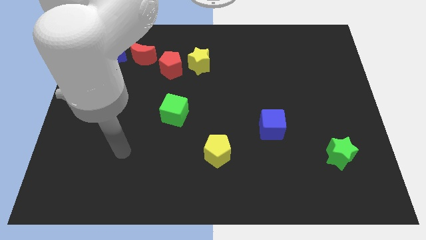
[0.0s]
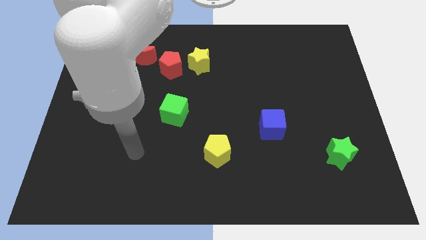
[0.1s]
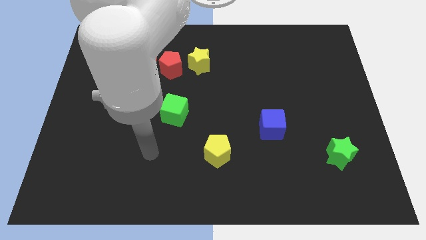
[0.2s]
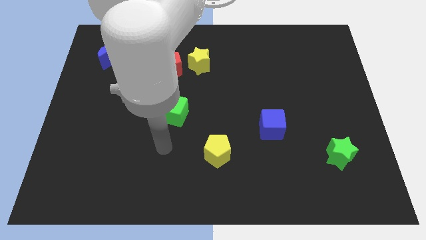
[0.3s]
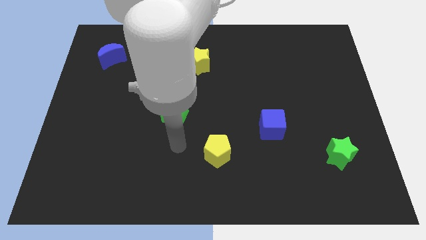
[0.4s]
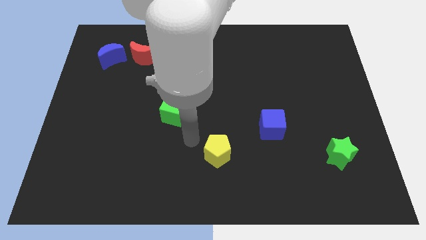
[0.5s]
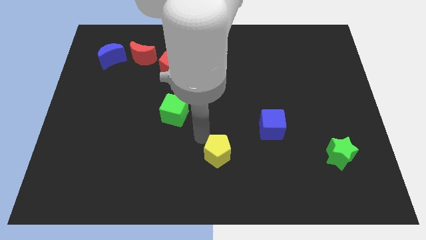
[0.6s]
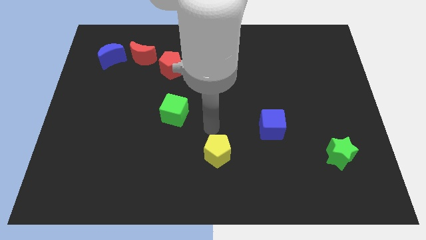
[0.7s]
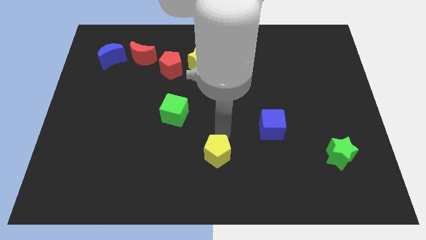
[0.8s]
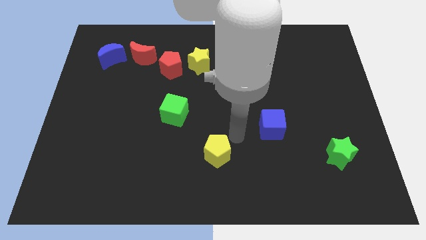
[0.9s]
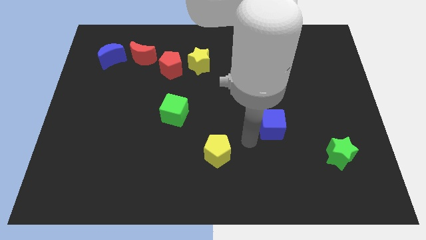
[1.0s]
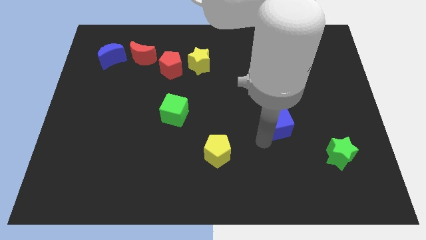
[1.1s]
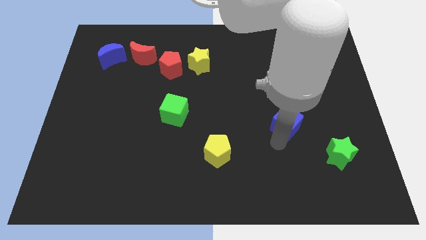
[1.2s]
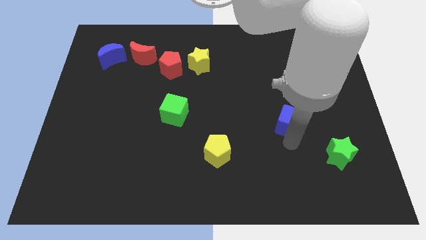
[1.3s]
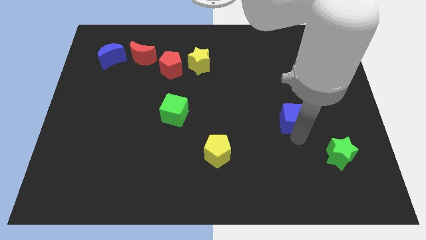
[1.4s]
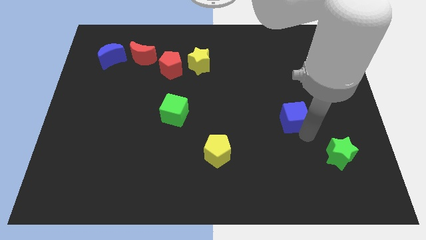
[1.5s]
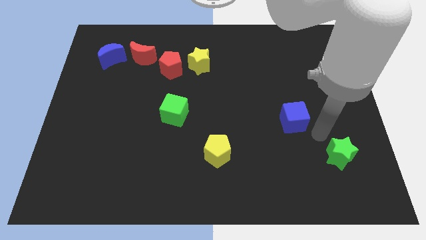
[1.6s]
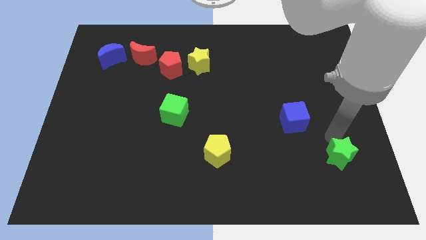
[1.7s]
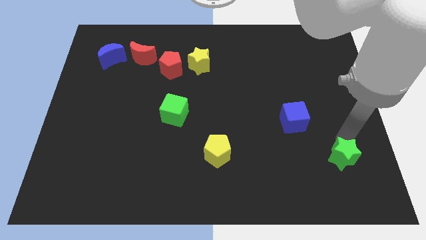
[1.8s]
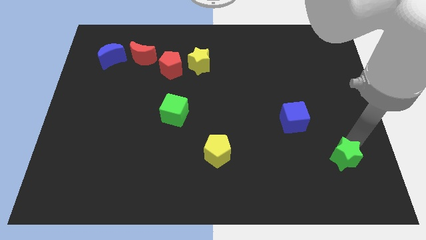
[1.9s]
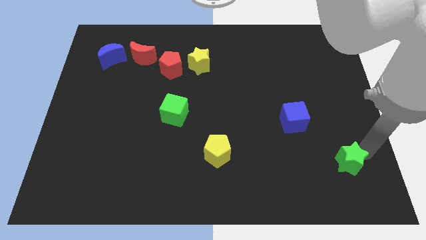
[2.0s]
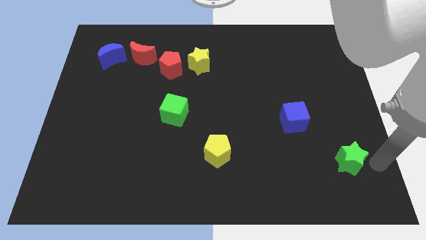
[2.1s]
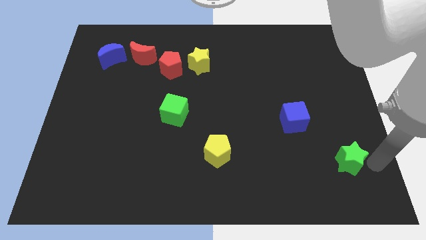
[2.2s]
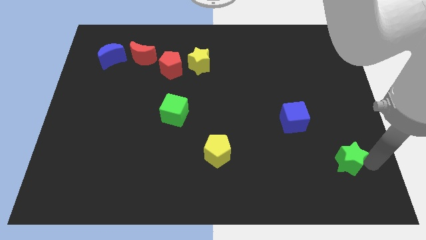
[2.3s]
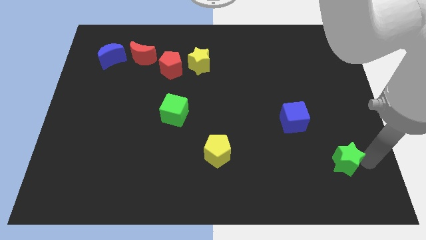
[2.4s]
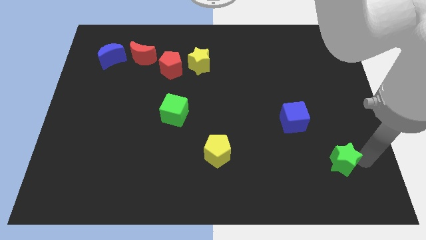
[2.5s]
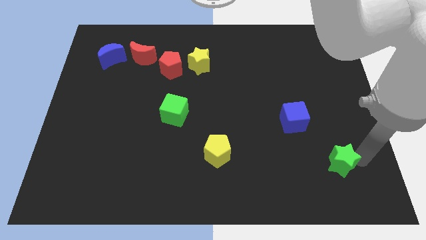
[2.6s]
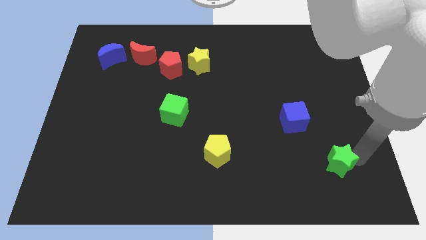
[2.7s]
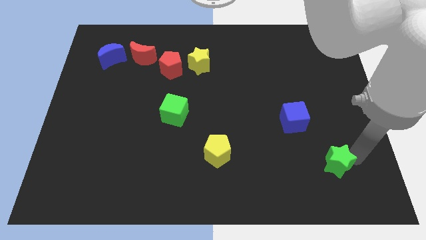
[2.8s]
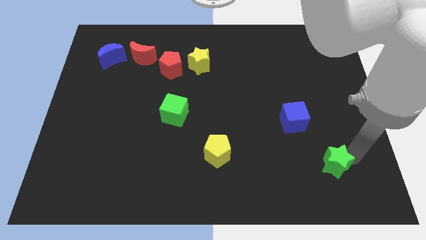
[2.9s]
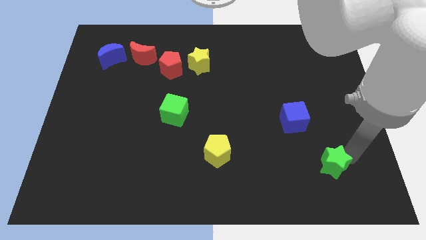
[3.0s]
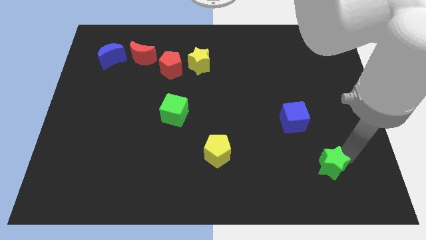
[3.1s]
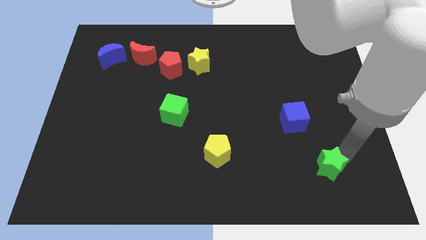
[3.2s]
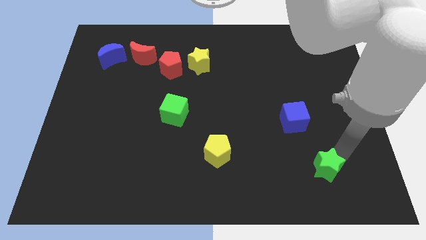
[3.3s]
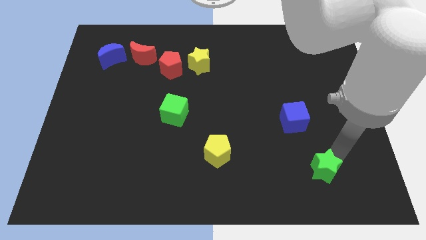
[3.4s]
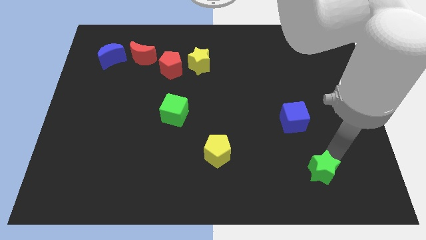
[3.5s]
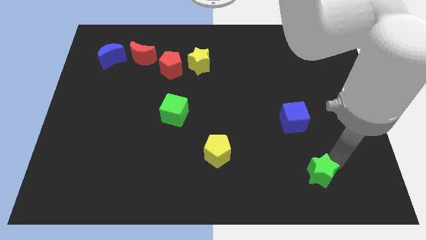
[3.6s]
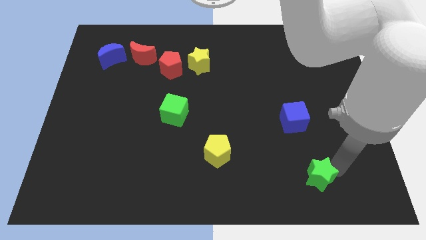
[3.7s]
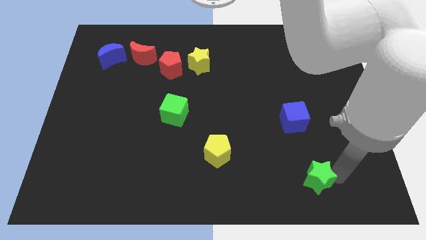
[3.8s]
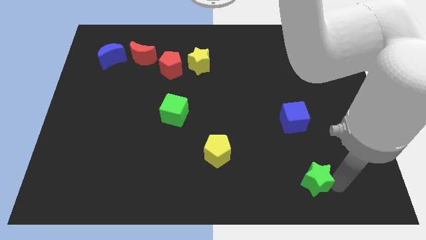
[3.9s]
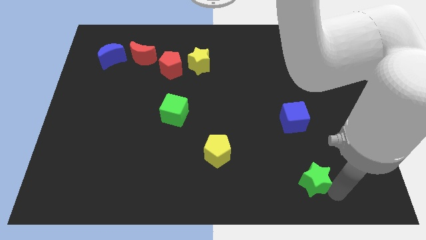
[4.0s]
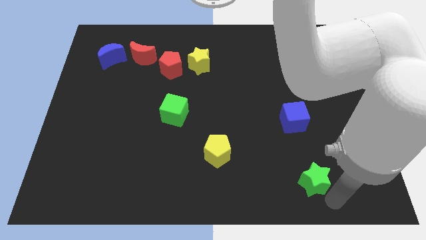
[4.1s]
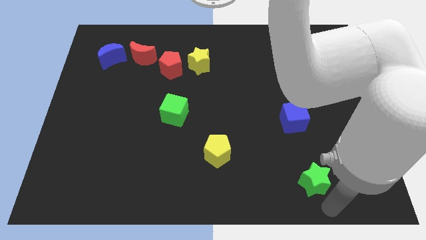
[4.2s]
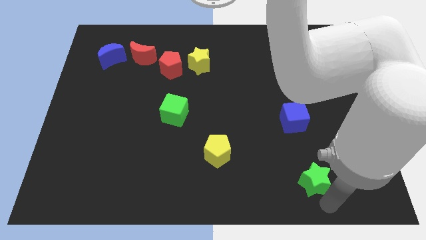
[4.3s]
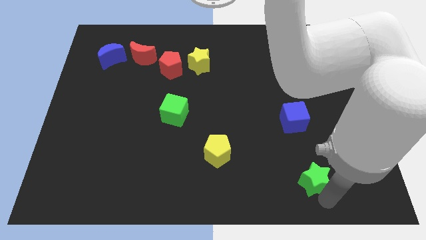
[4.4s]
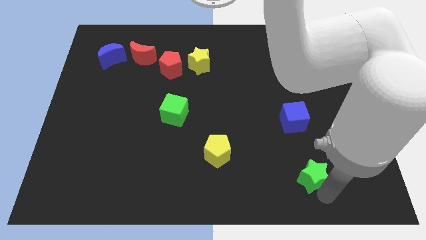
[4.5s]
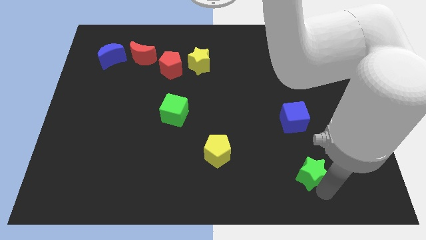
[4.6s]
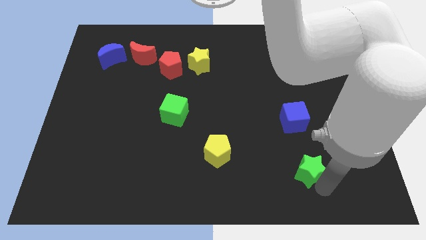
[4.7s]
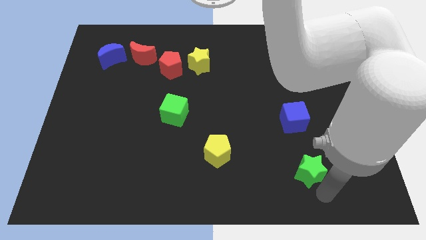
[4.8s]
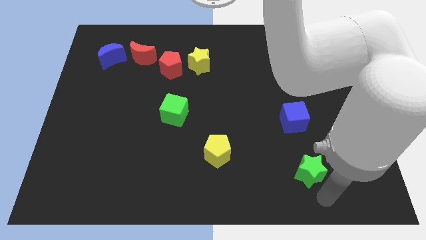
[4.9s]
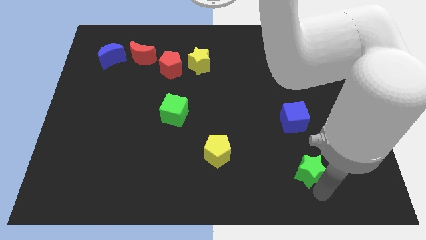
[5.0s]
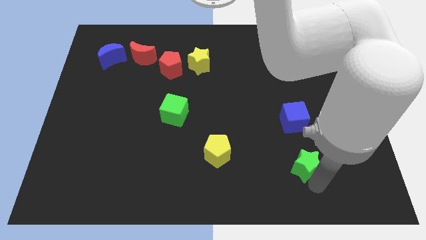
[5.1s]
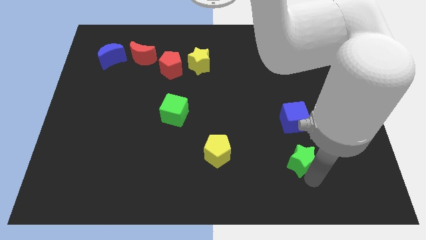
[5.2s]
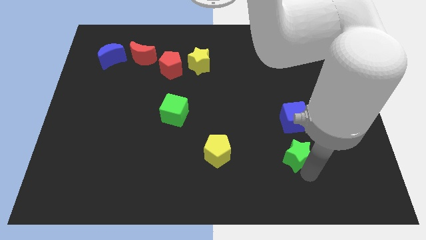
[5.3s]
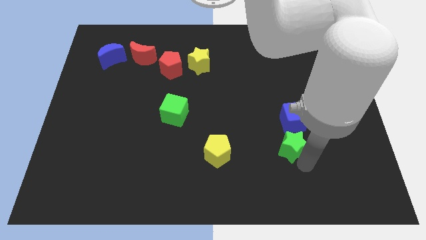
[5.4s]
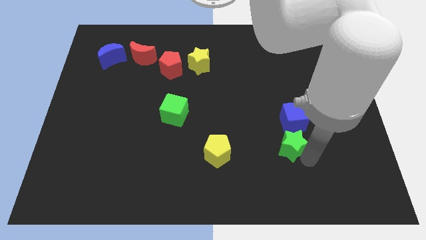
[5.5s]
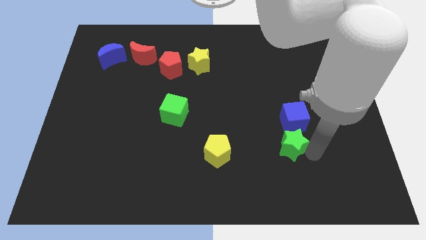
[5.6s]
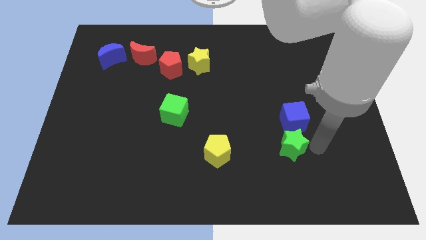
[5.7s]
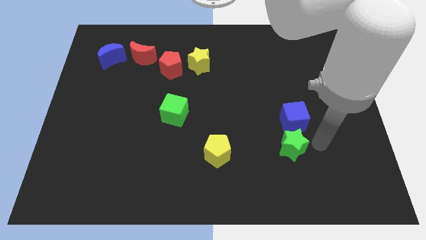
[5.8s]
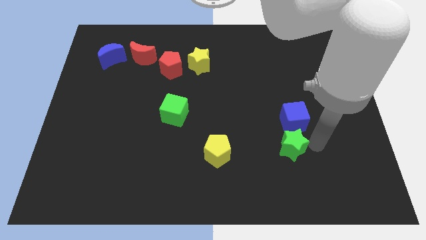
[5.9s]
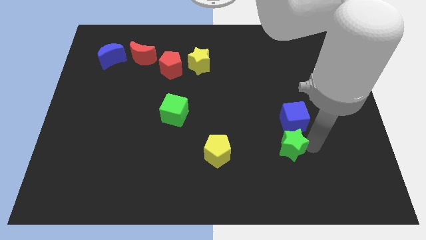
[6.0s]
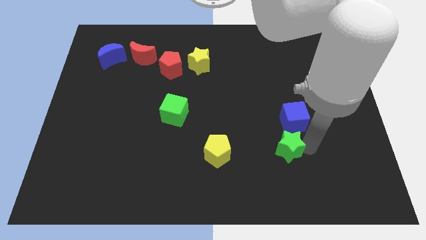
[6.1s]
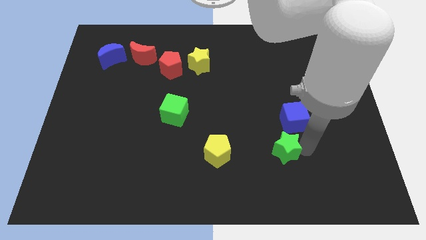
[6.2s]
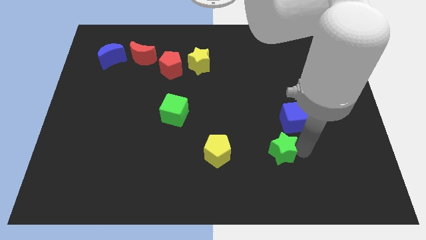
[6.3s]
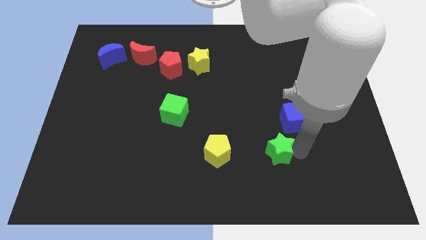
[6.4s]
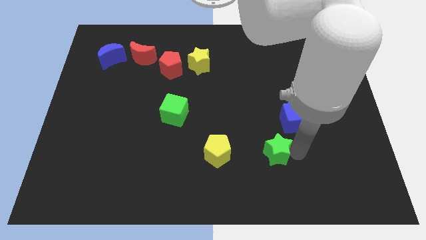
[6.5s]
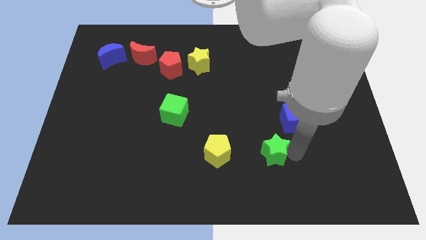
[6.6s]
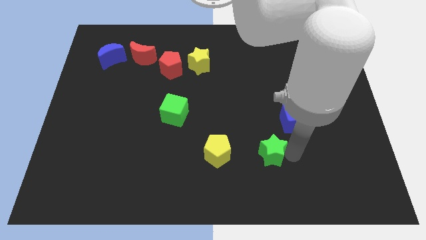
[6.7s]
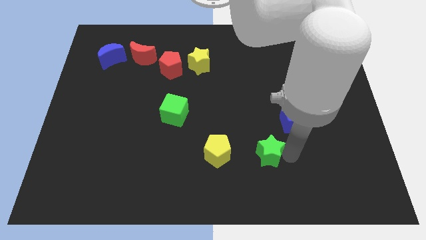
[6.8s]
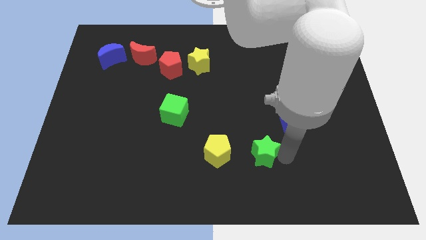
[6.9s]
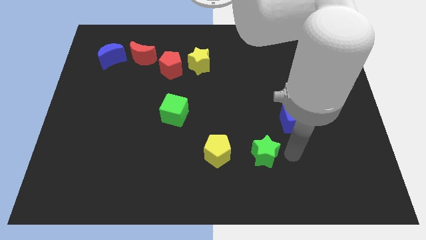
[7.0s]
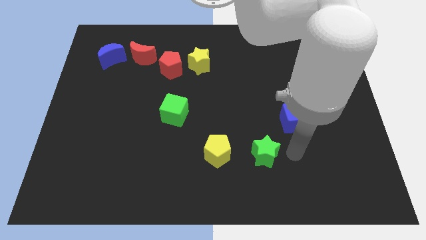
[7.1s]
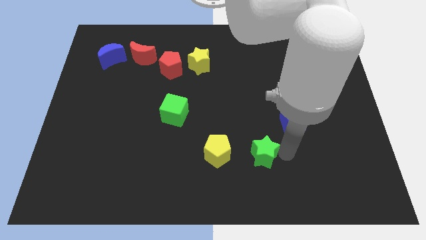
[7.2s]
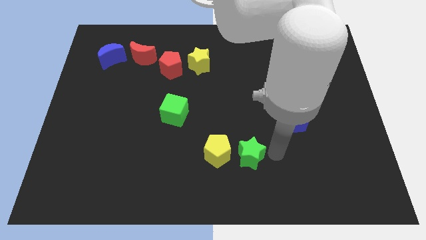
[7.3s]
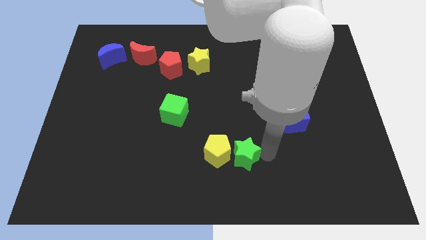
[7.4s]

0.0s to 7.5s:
push the green star next to the yellow pentagon

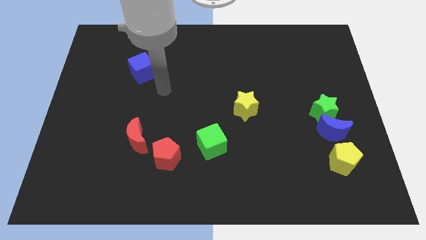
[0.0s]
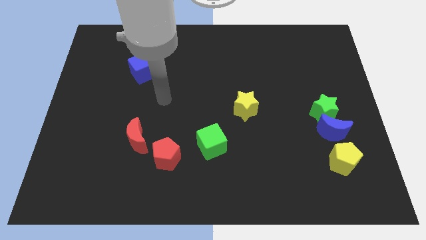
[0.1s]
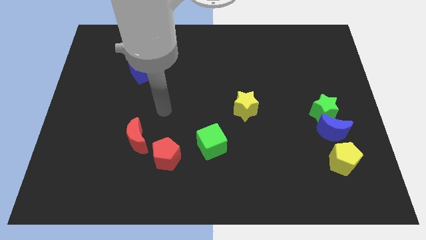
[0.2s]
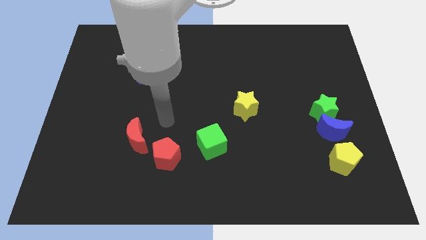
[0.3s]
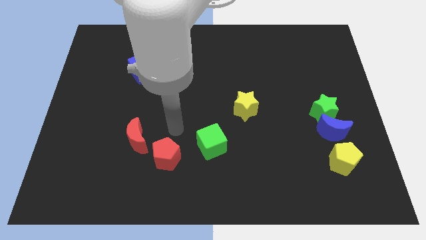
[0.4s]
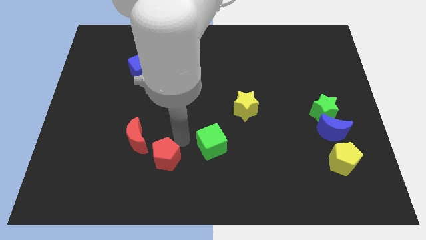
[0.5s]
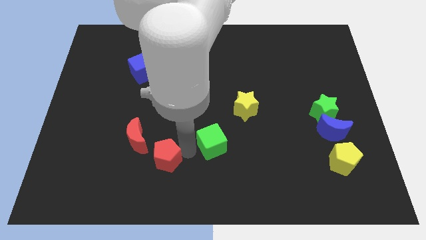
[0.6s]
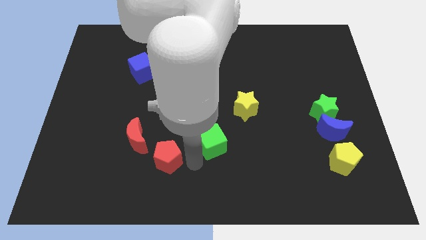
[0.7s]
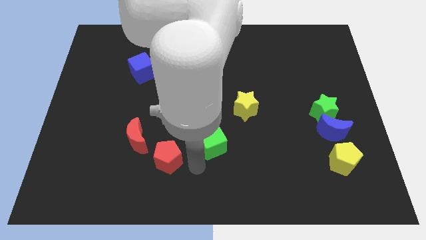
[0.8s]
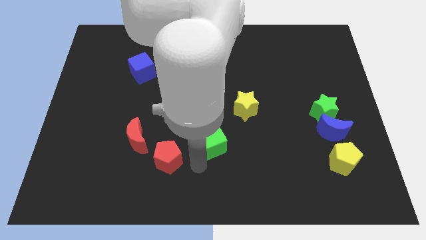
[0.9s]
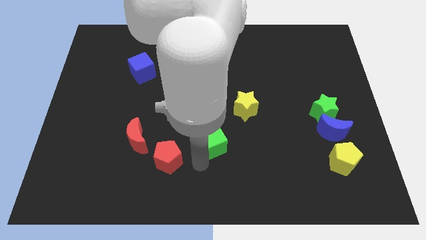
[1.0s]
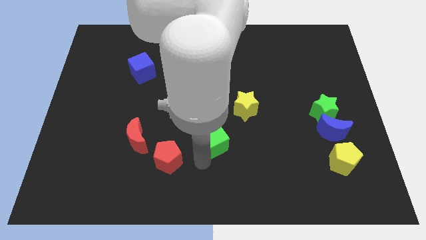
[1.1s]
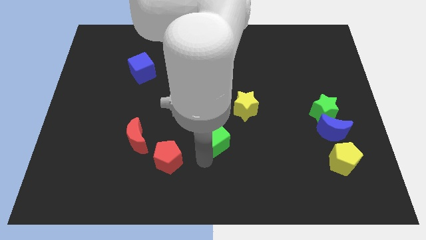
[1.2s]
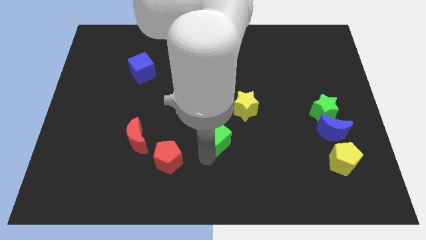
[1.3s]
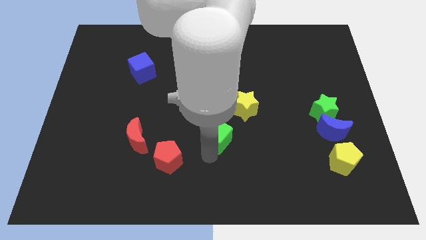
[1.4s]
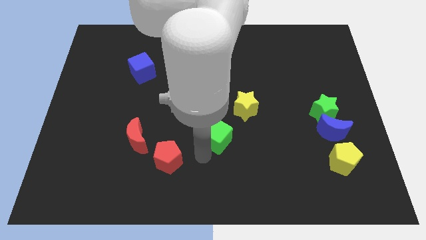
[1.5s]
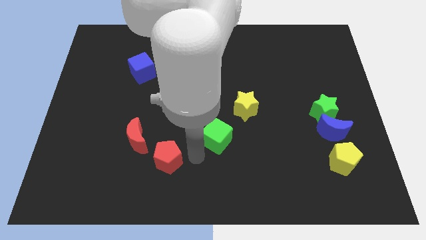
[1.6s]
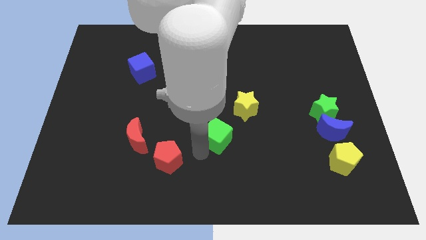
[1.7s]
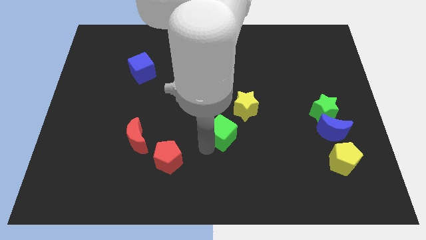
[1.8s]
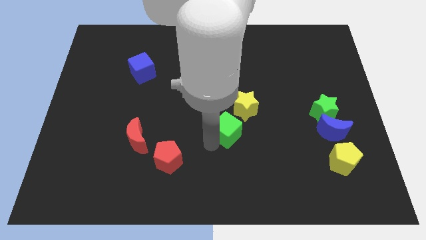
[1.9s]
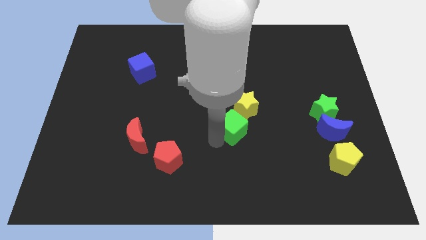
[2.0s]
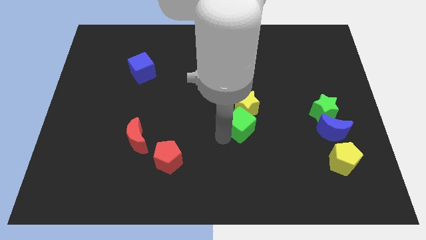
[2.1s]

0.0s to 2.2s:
slide the green cube towards the yellow star
